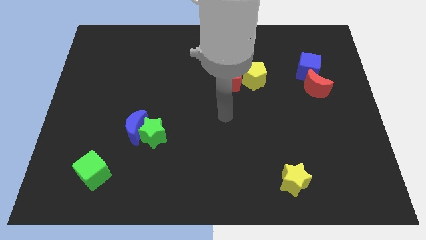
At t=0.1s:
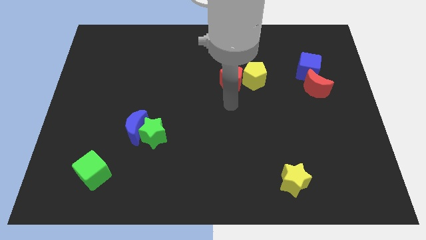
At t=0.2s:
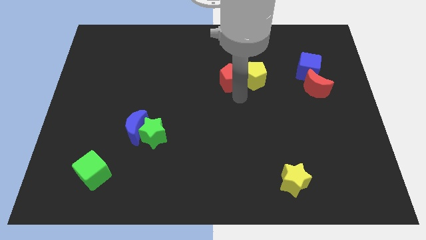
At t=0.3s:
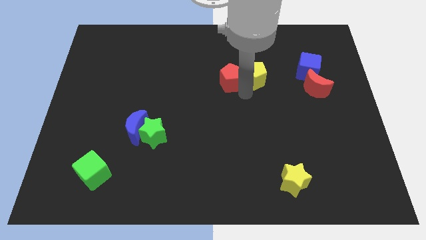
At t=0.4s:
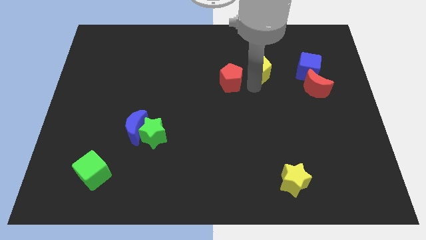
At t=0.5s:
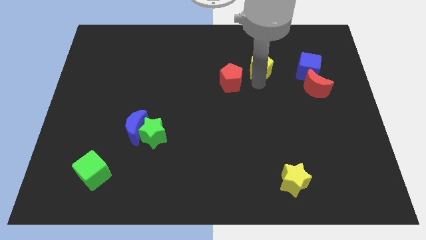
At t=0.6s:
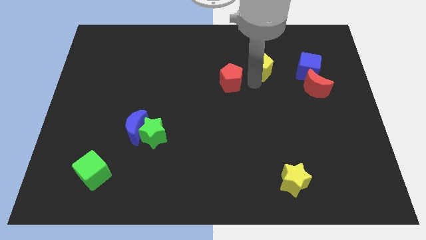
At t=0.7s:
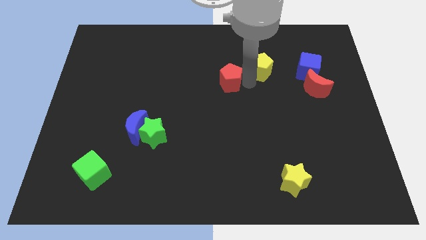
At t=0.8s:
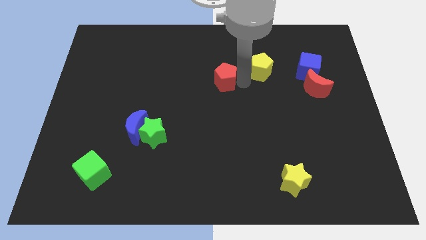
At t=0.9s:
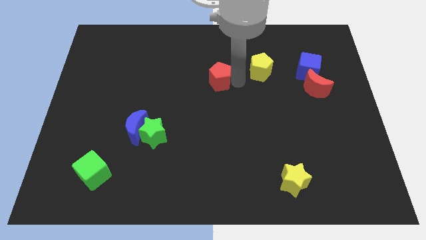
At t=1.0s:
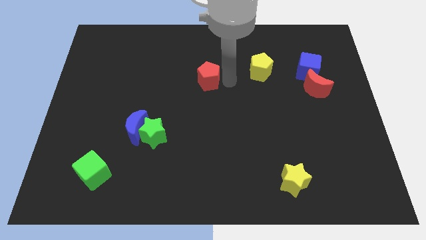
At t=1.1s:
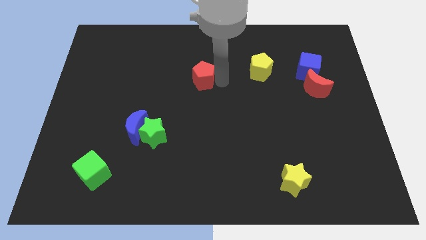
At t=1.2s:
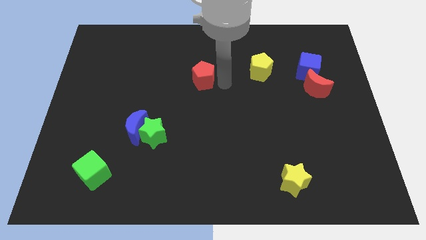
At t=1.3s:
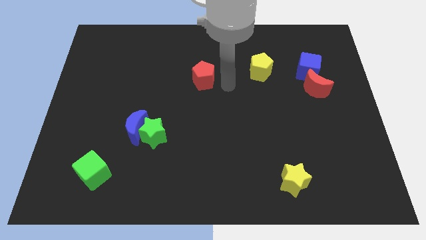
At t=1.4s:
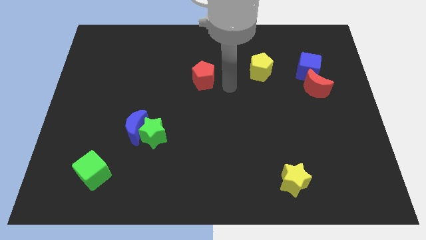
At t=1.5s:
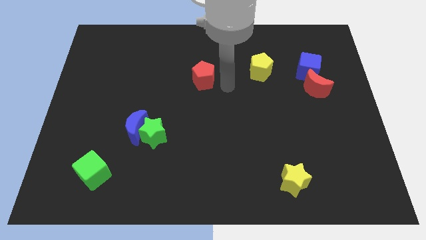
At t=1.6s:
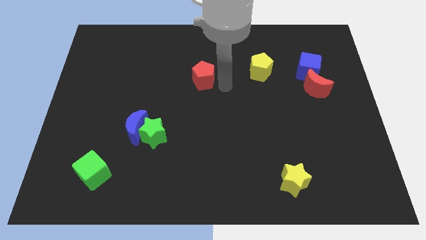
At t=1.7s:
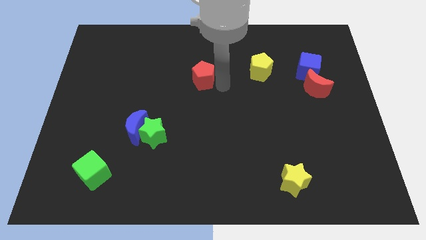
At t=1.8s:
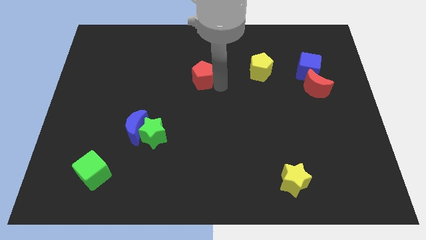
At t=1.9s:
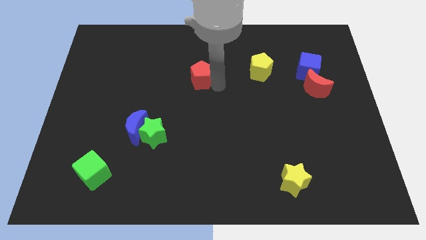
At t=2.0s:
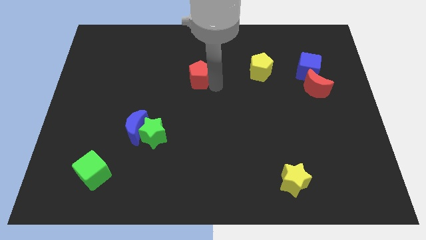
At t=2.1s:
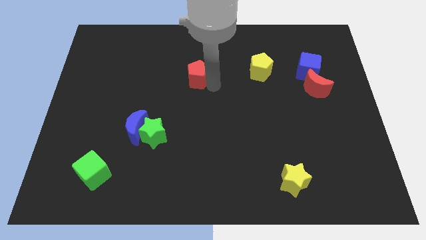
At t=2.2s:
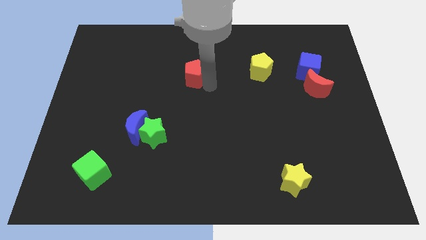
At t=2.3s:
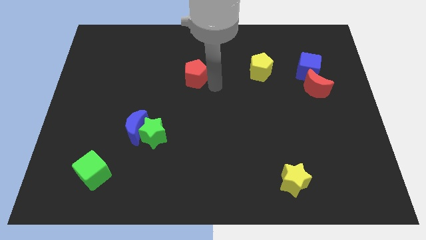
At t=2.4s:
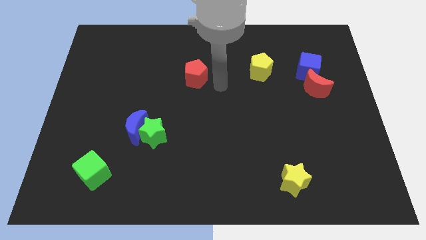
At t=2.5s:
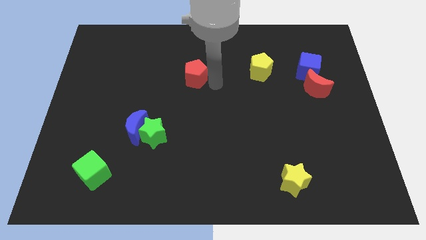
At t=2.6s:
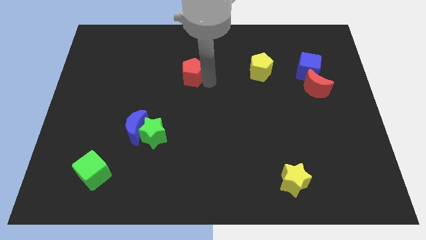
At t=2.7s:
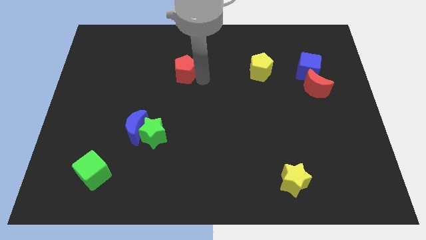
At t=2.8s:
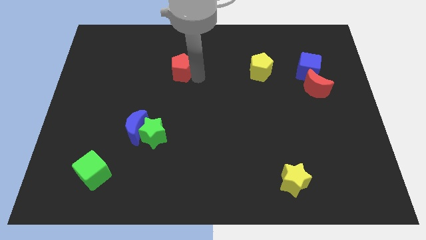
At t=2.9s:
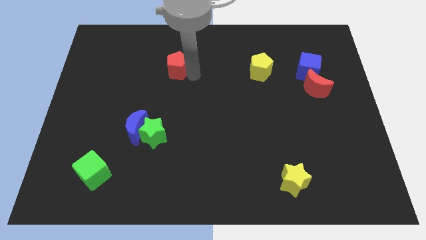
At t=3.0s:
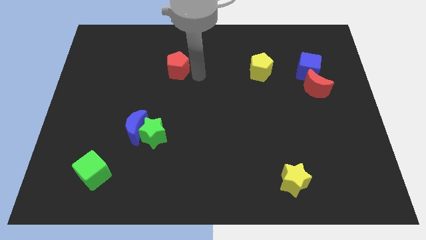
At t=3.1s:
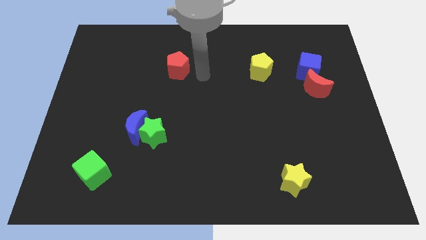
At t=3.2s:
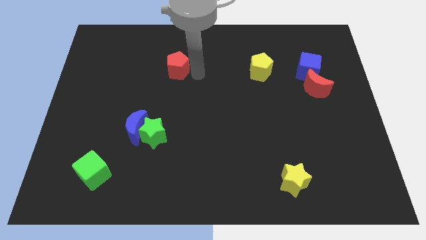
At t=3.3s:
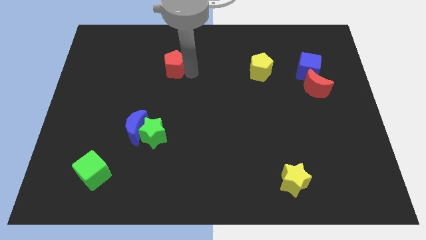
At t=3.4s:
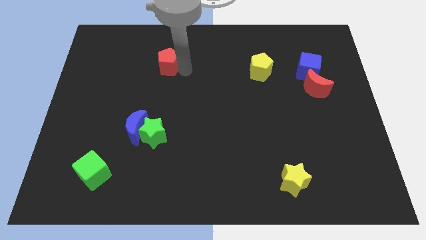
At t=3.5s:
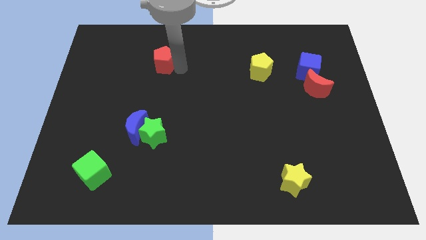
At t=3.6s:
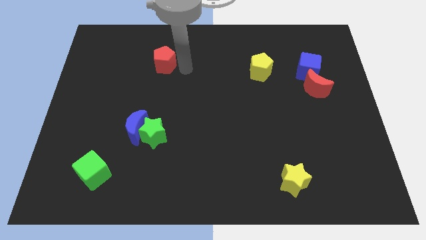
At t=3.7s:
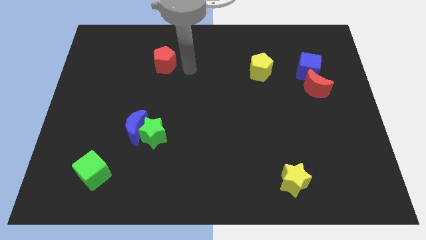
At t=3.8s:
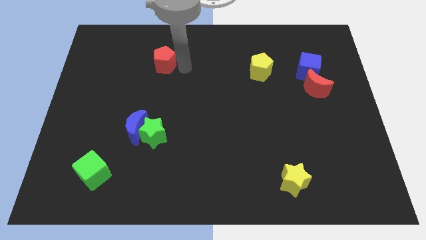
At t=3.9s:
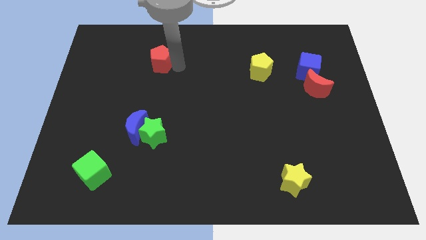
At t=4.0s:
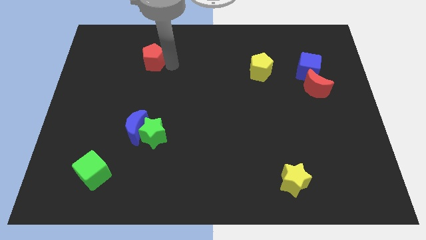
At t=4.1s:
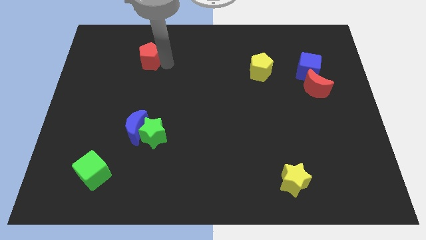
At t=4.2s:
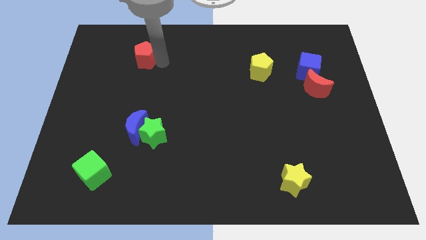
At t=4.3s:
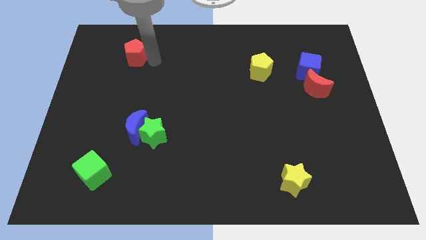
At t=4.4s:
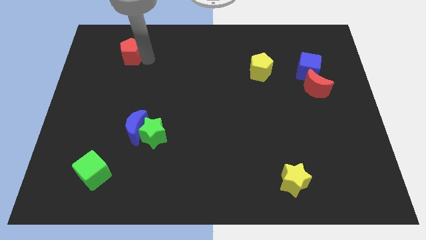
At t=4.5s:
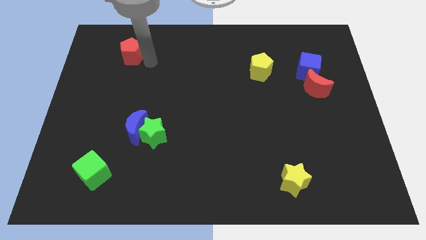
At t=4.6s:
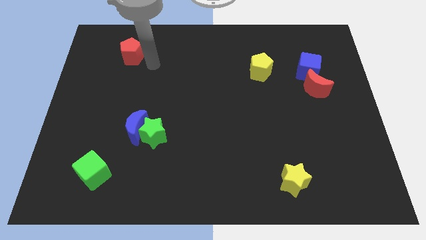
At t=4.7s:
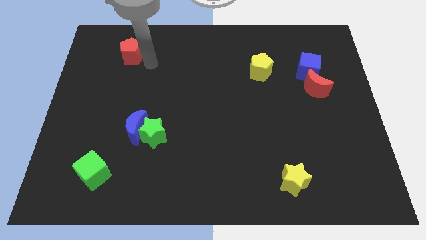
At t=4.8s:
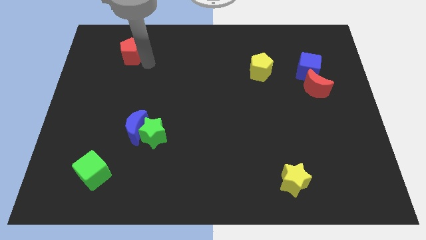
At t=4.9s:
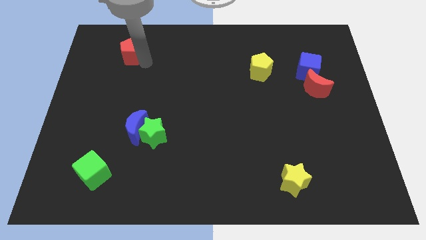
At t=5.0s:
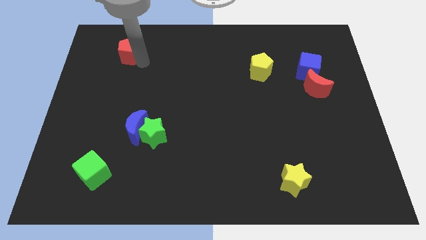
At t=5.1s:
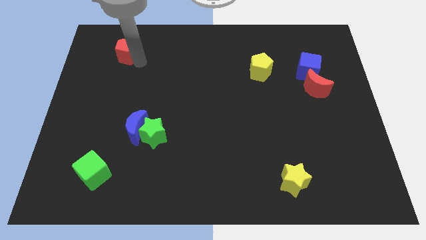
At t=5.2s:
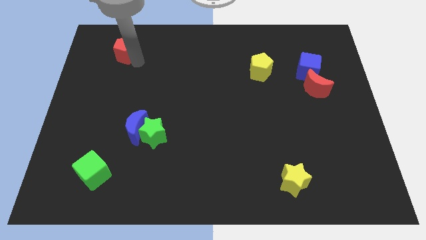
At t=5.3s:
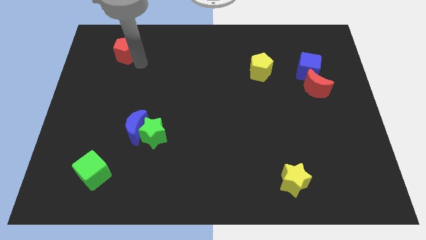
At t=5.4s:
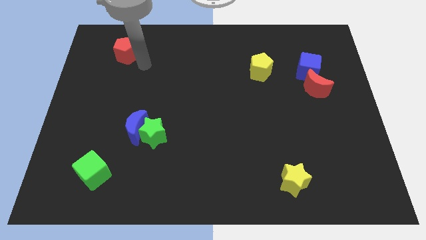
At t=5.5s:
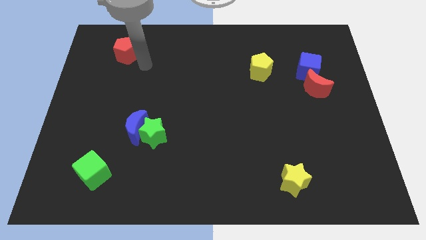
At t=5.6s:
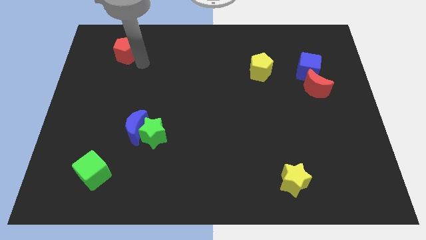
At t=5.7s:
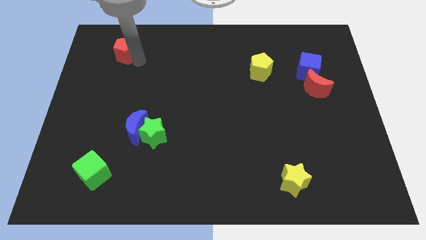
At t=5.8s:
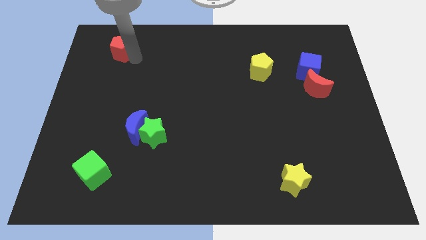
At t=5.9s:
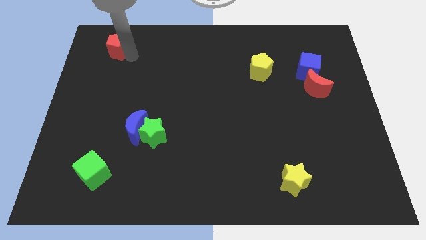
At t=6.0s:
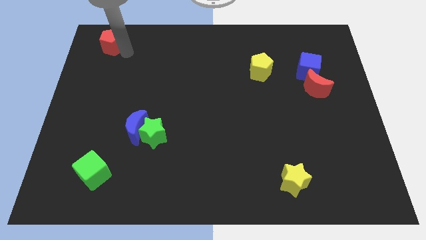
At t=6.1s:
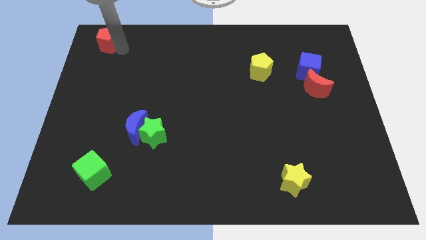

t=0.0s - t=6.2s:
put the red pentagon to the top left corner

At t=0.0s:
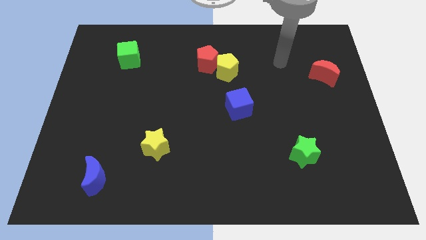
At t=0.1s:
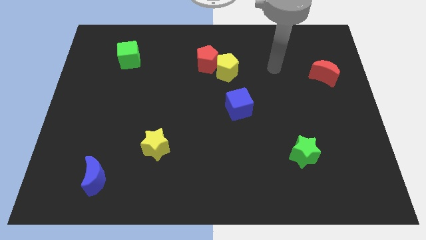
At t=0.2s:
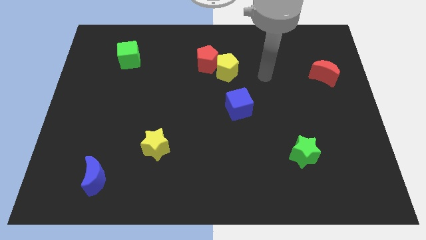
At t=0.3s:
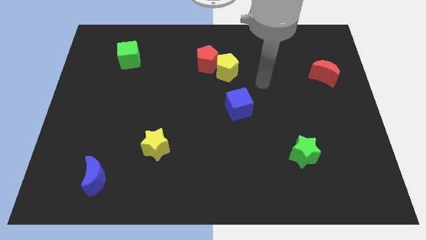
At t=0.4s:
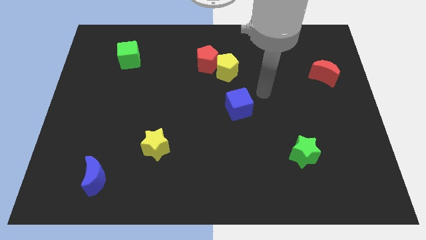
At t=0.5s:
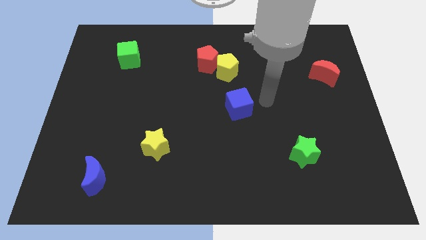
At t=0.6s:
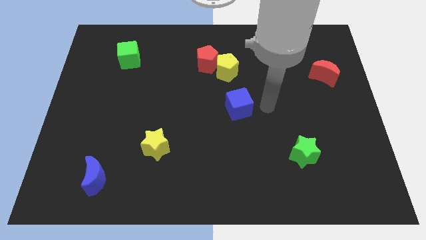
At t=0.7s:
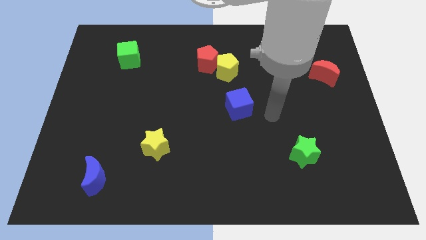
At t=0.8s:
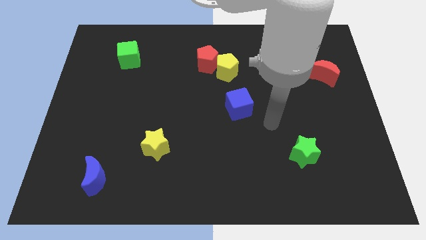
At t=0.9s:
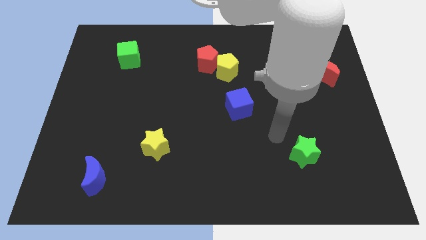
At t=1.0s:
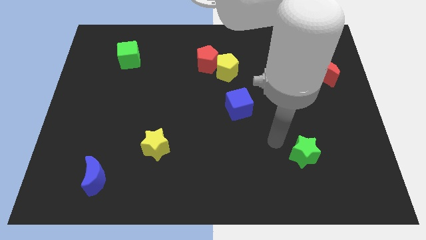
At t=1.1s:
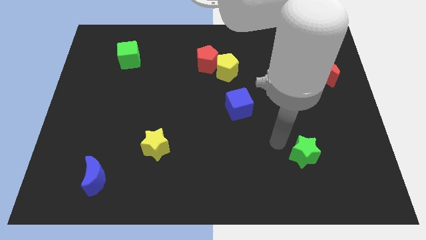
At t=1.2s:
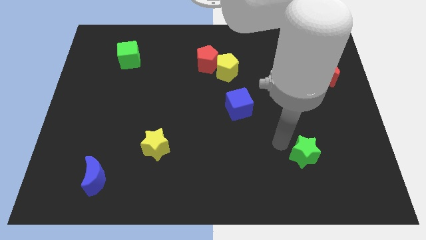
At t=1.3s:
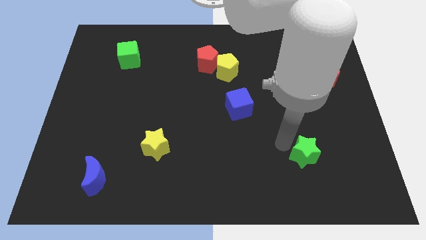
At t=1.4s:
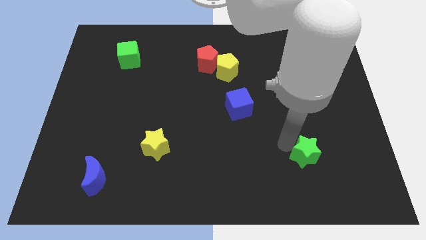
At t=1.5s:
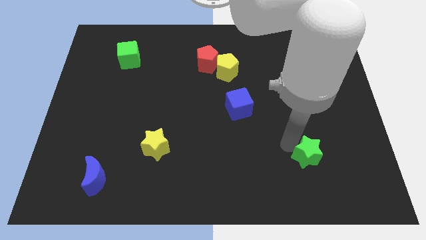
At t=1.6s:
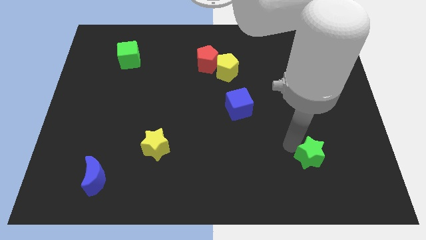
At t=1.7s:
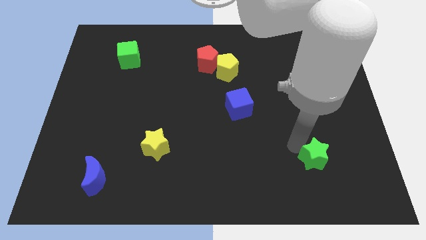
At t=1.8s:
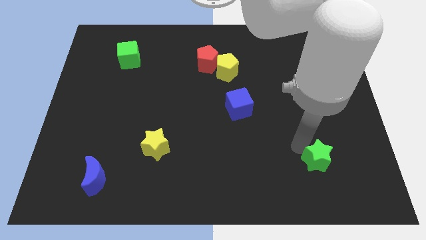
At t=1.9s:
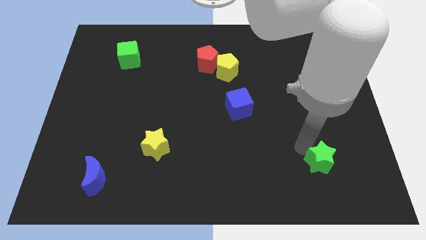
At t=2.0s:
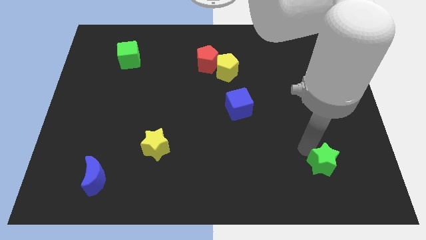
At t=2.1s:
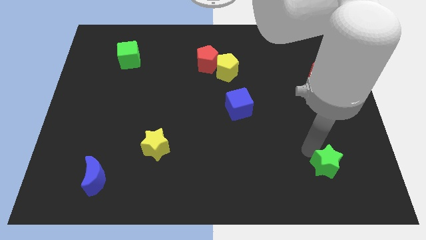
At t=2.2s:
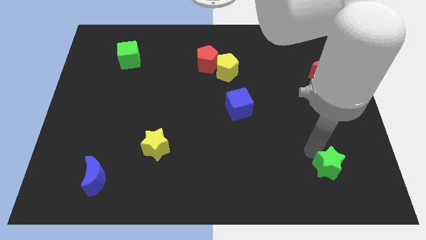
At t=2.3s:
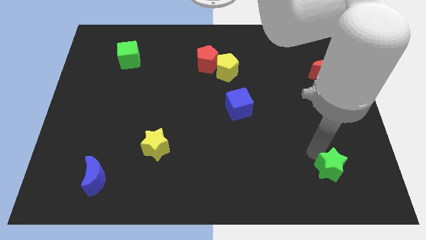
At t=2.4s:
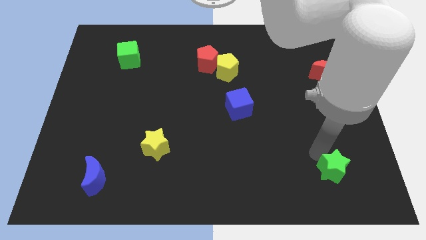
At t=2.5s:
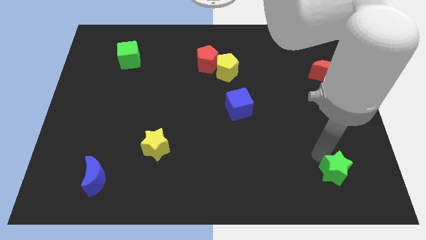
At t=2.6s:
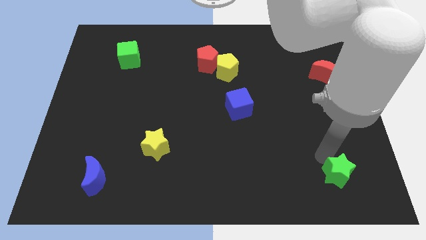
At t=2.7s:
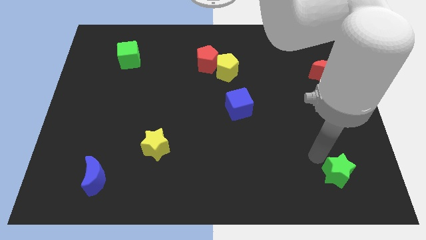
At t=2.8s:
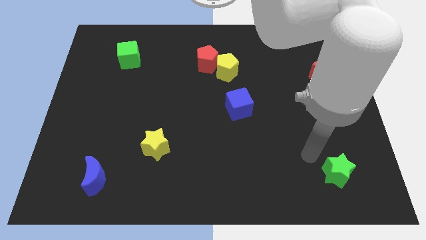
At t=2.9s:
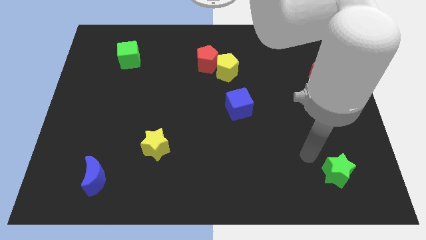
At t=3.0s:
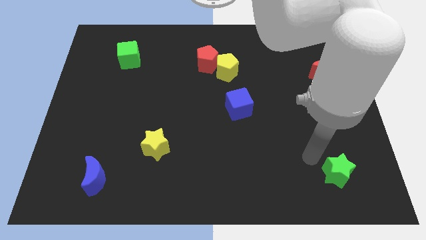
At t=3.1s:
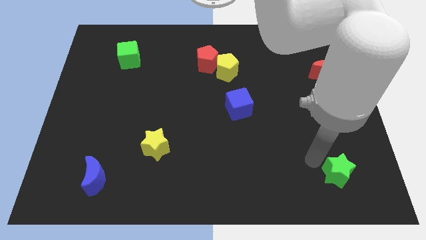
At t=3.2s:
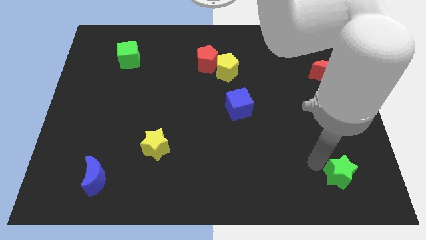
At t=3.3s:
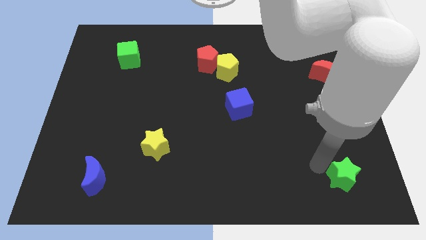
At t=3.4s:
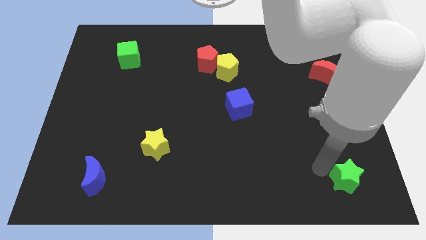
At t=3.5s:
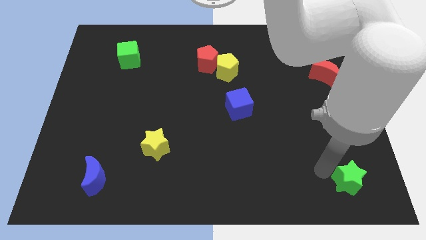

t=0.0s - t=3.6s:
slide the green star to the bottom right
